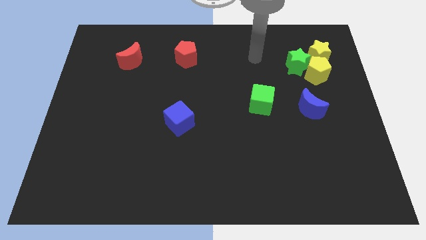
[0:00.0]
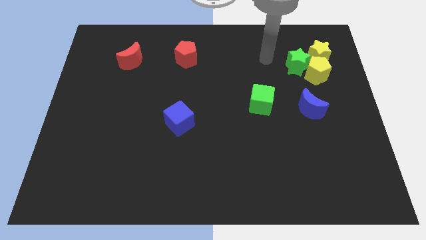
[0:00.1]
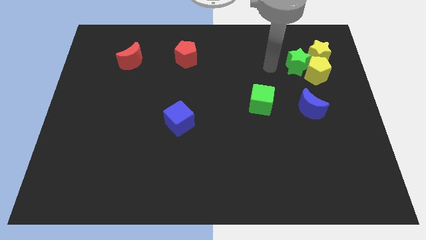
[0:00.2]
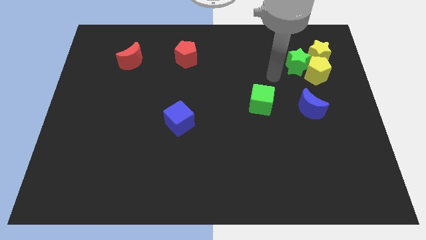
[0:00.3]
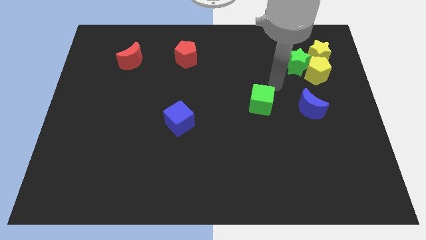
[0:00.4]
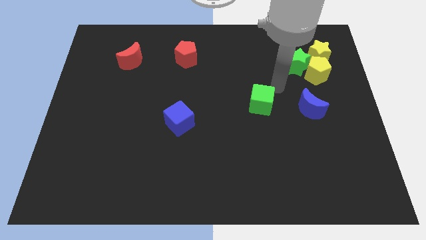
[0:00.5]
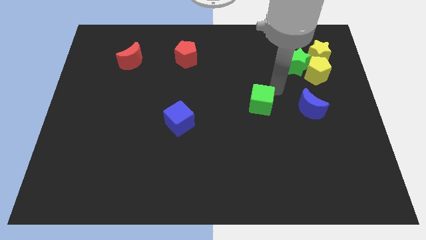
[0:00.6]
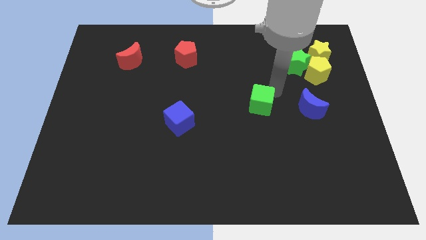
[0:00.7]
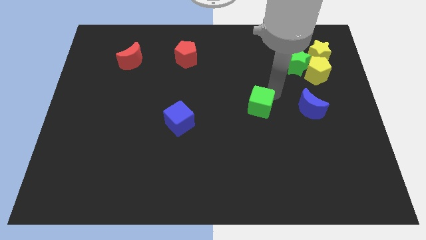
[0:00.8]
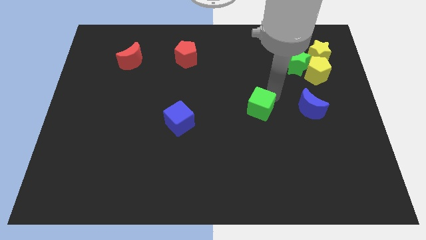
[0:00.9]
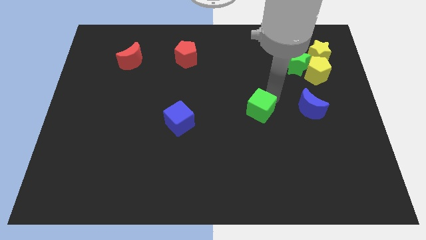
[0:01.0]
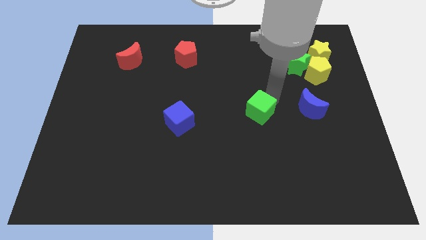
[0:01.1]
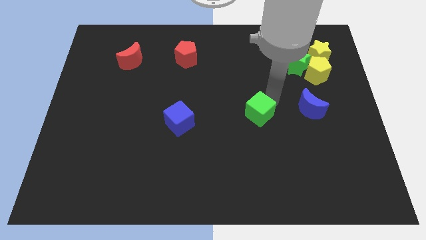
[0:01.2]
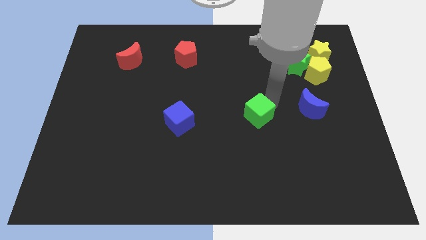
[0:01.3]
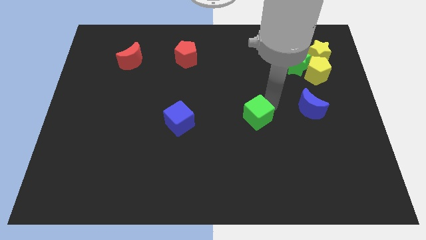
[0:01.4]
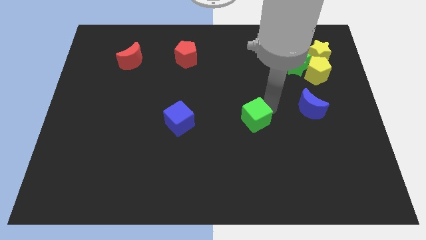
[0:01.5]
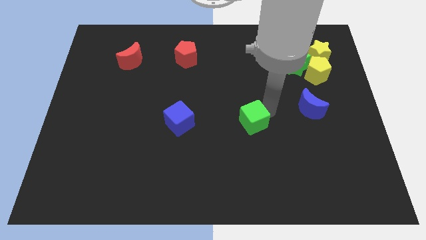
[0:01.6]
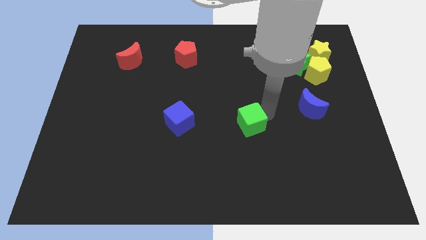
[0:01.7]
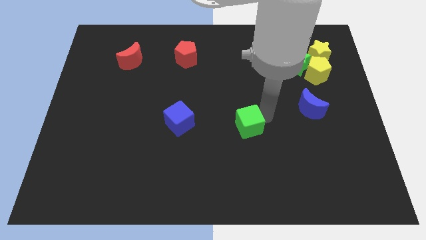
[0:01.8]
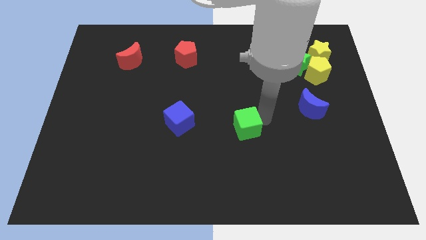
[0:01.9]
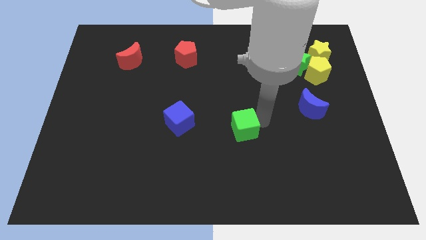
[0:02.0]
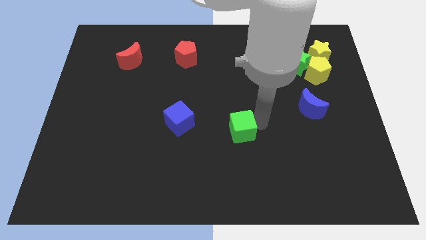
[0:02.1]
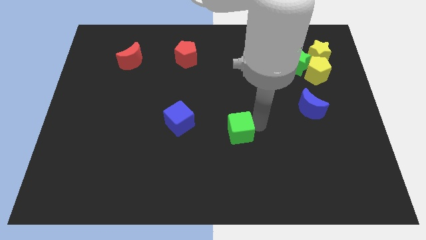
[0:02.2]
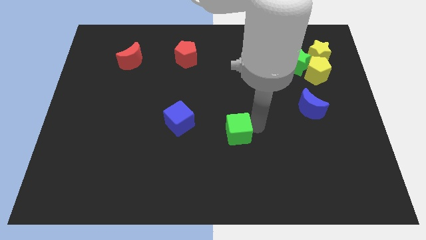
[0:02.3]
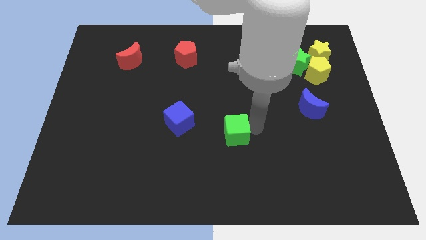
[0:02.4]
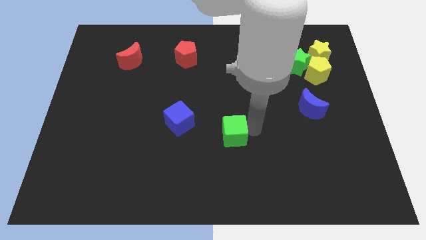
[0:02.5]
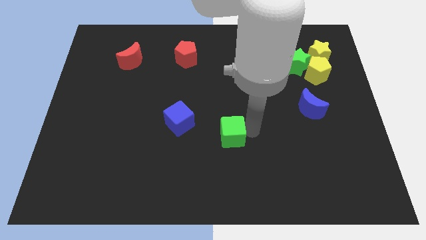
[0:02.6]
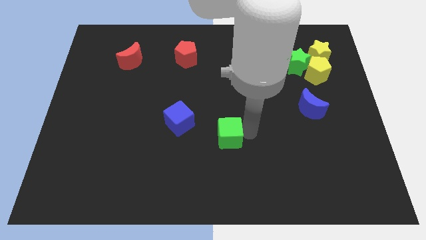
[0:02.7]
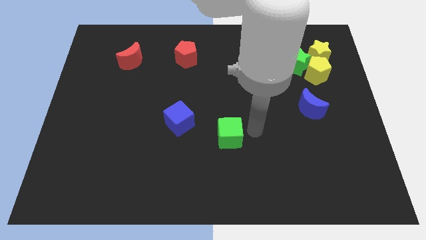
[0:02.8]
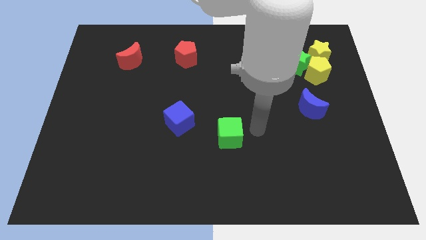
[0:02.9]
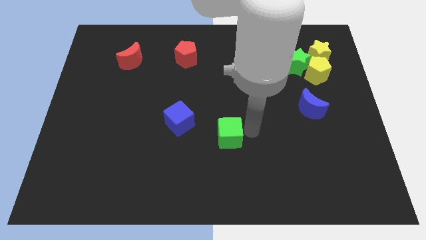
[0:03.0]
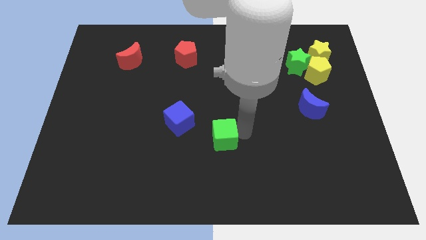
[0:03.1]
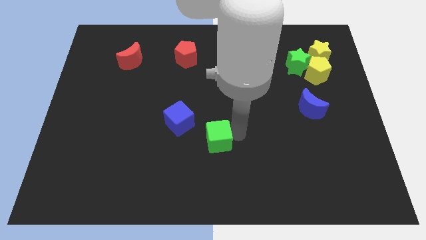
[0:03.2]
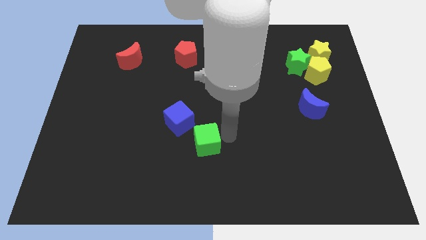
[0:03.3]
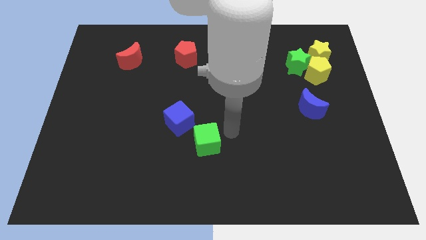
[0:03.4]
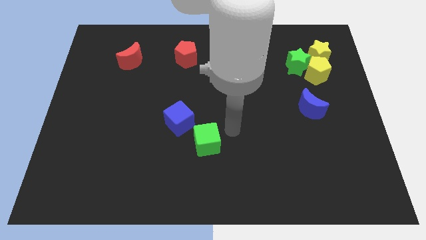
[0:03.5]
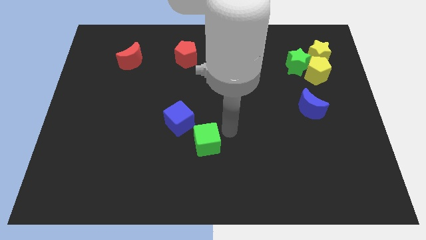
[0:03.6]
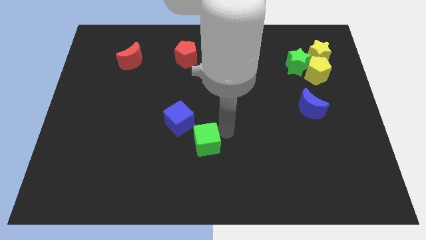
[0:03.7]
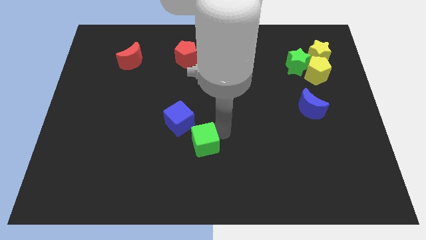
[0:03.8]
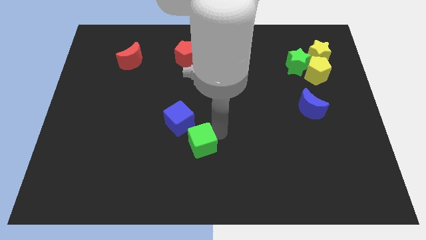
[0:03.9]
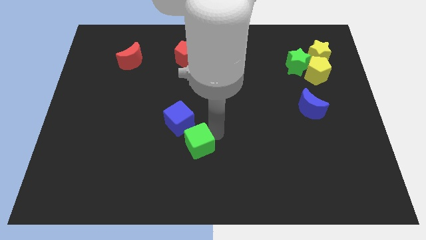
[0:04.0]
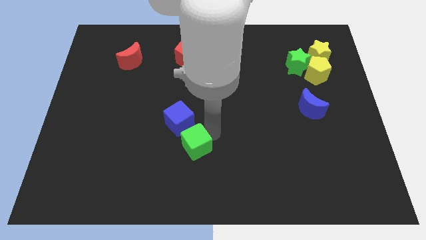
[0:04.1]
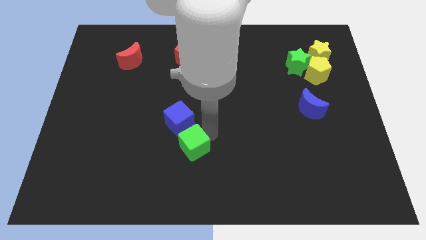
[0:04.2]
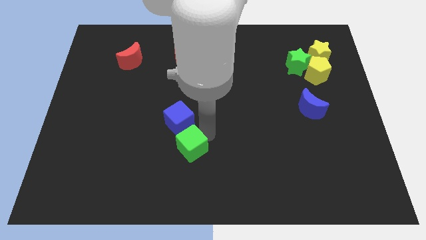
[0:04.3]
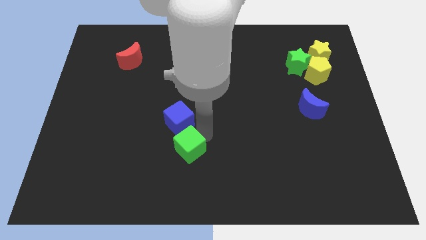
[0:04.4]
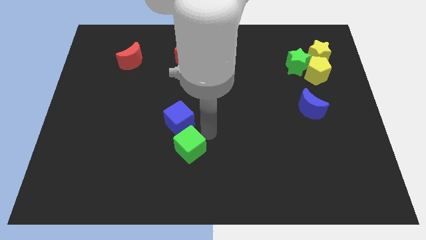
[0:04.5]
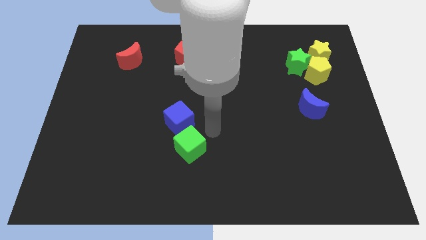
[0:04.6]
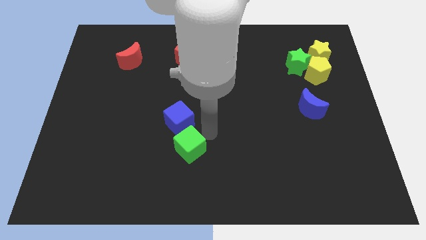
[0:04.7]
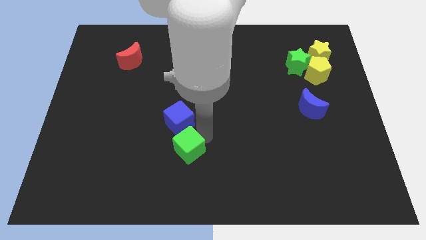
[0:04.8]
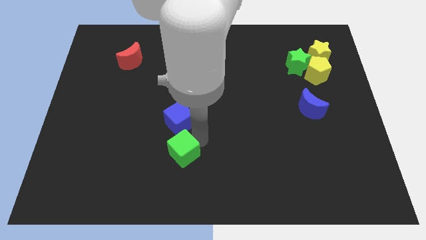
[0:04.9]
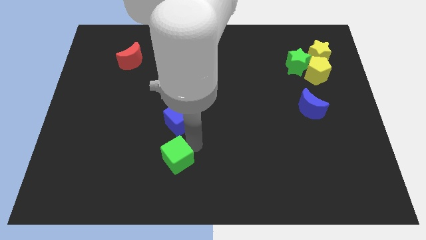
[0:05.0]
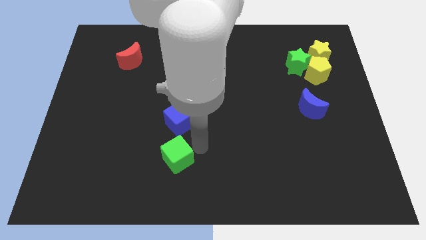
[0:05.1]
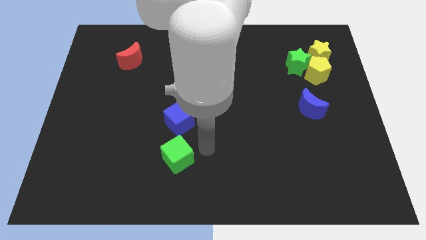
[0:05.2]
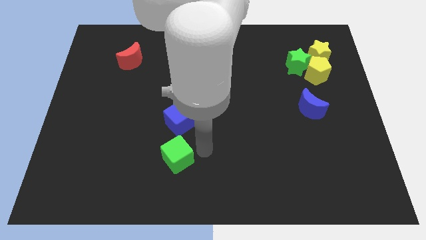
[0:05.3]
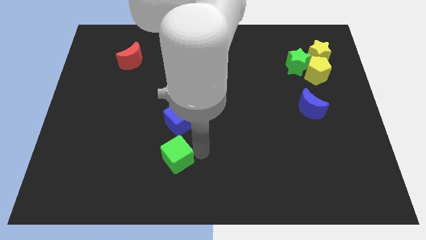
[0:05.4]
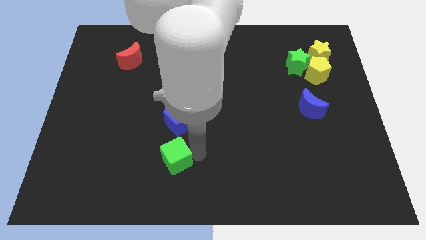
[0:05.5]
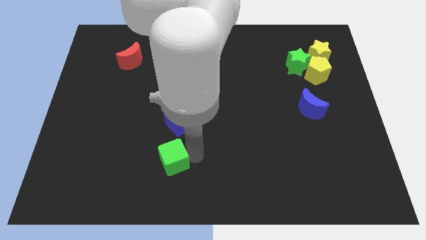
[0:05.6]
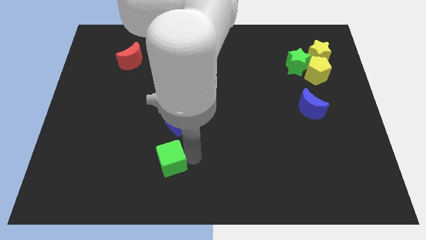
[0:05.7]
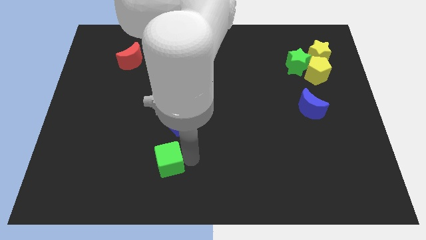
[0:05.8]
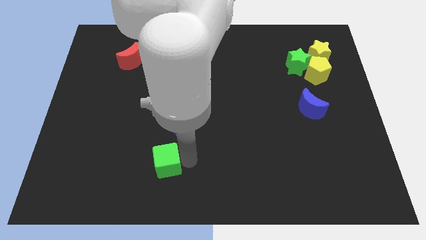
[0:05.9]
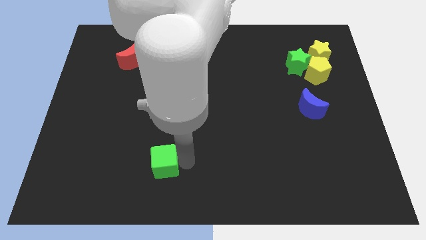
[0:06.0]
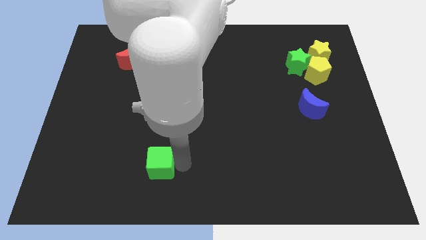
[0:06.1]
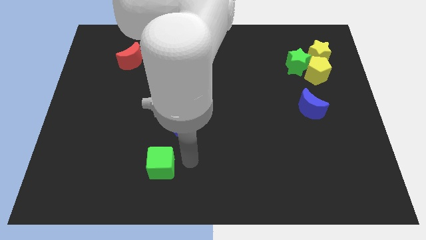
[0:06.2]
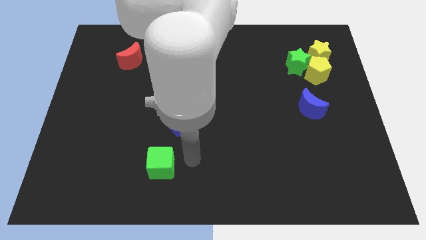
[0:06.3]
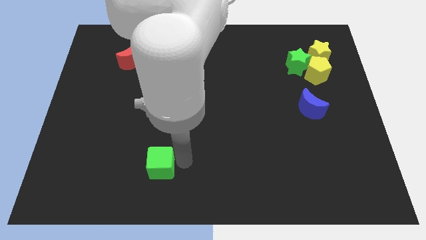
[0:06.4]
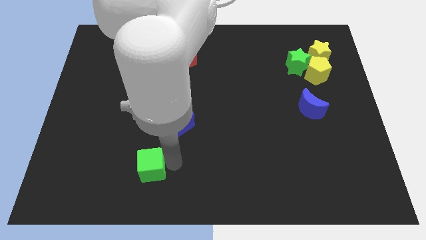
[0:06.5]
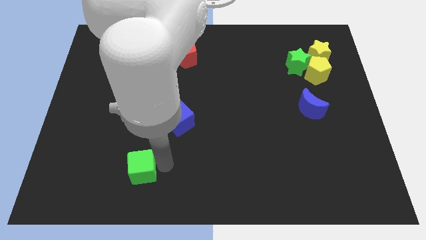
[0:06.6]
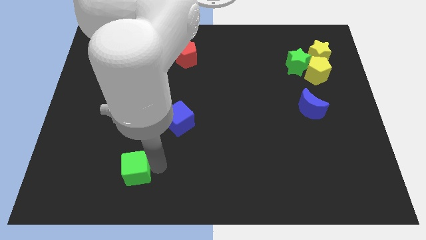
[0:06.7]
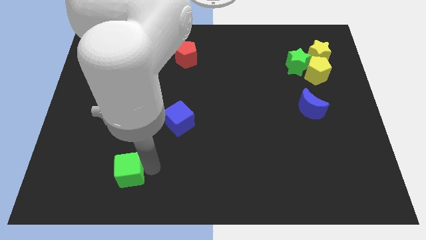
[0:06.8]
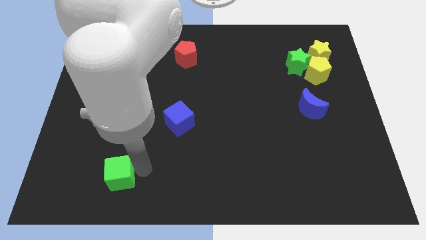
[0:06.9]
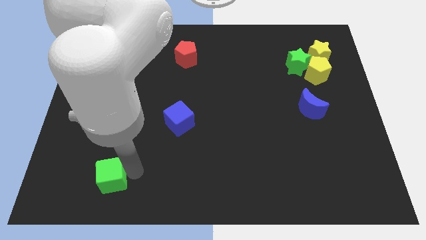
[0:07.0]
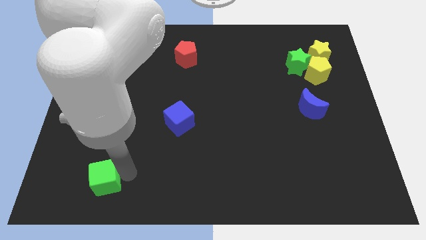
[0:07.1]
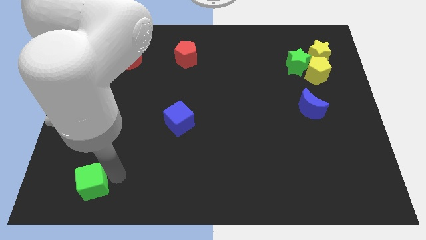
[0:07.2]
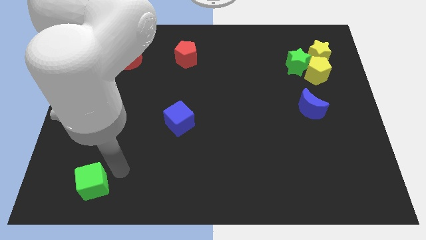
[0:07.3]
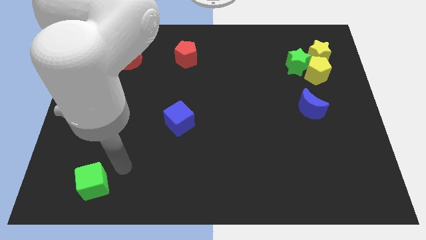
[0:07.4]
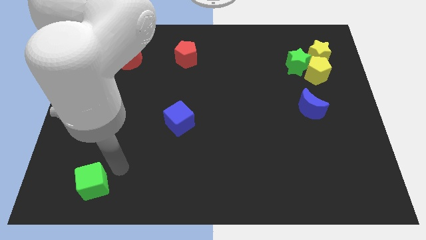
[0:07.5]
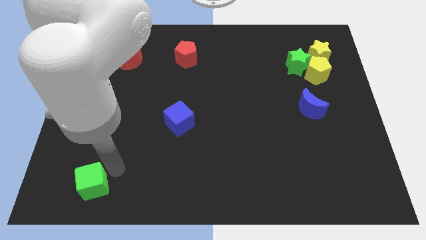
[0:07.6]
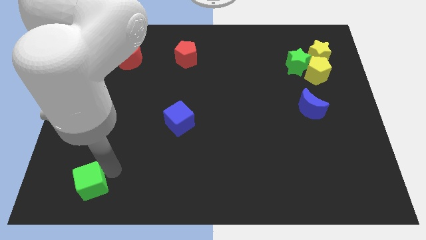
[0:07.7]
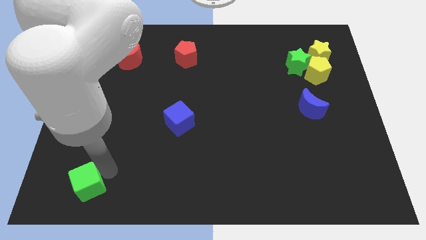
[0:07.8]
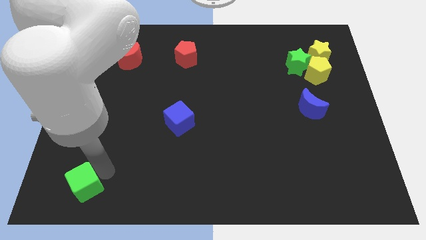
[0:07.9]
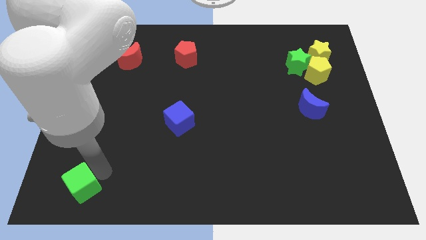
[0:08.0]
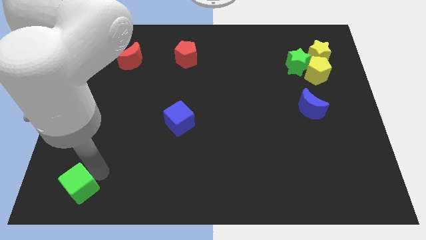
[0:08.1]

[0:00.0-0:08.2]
put the green cube to the bottom left of the board
